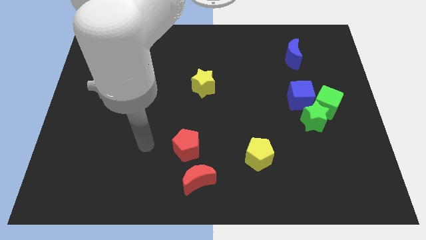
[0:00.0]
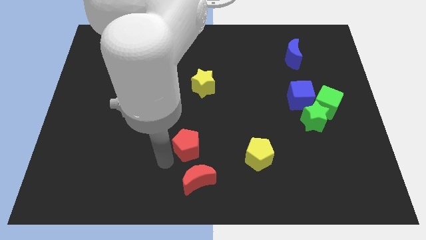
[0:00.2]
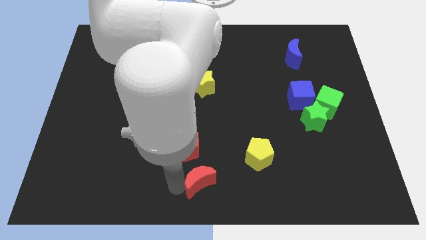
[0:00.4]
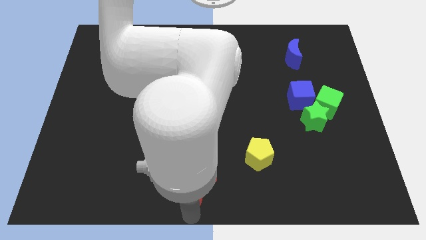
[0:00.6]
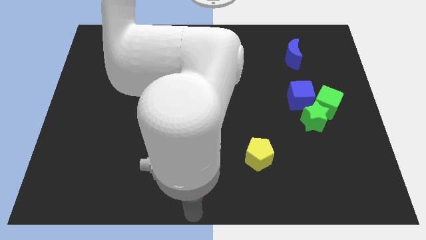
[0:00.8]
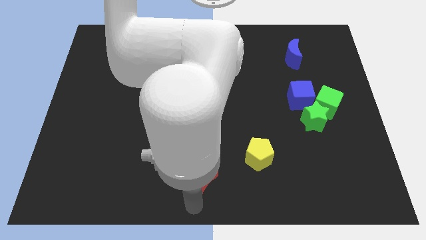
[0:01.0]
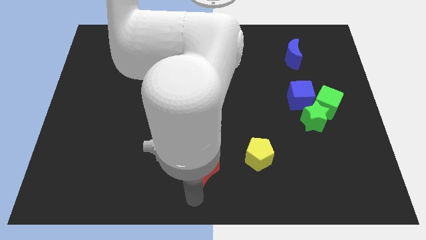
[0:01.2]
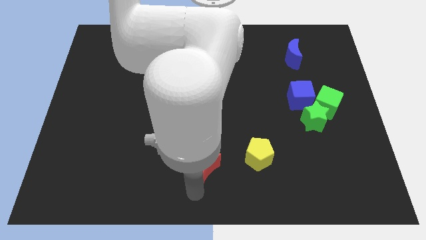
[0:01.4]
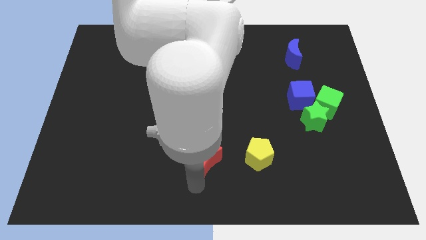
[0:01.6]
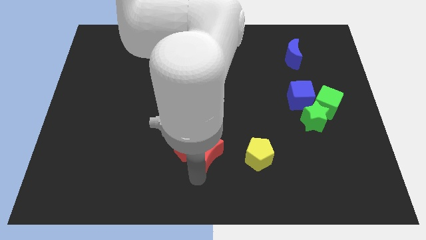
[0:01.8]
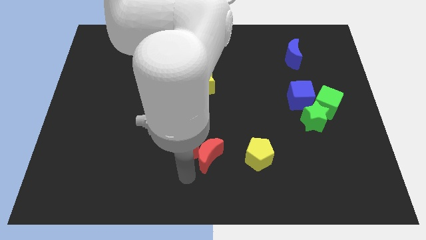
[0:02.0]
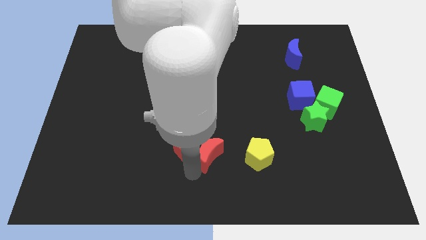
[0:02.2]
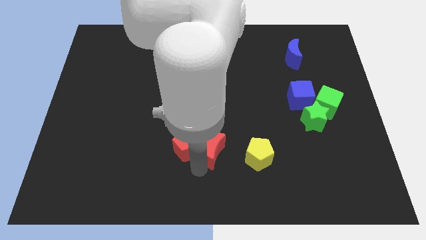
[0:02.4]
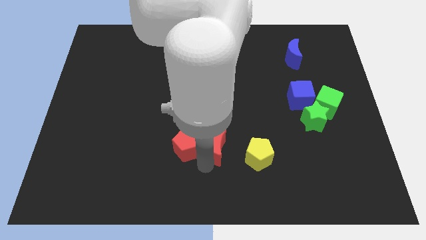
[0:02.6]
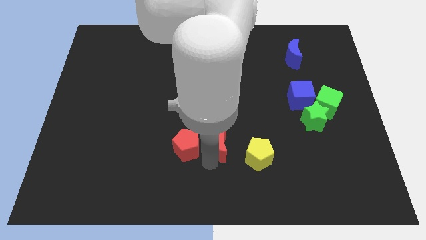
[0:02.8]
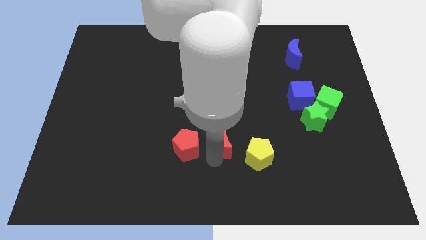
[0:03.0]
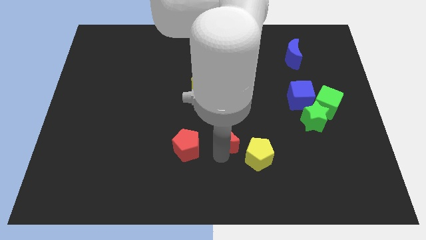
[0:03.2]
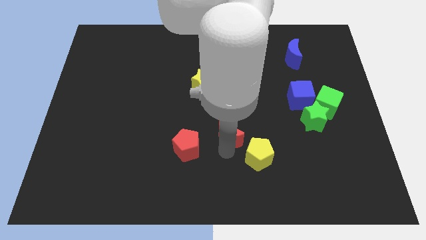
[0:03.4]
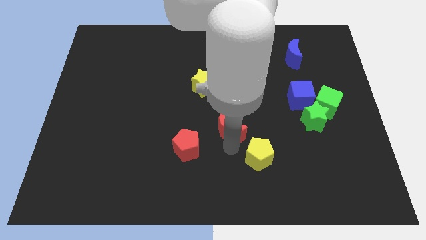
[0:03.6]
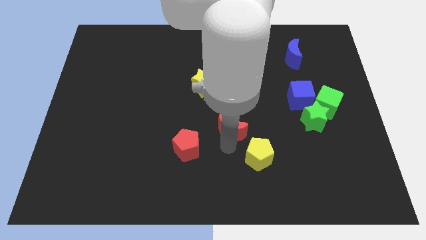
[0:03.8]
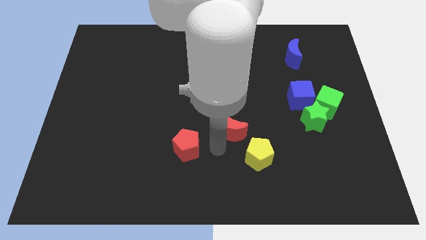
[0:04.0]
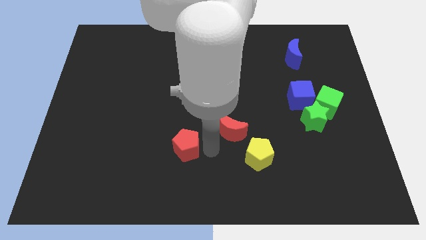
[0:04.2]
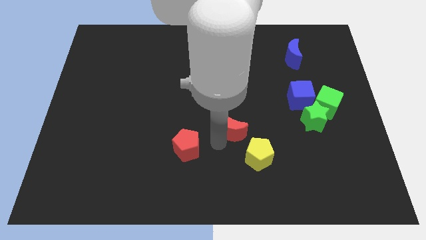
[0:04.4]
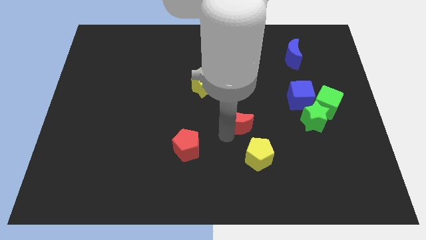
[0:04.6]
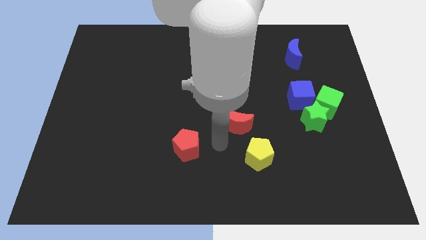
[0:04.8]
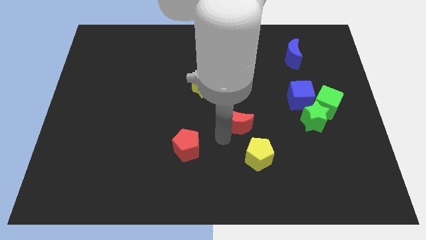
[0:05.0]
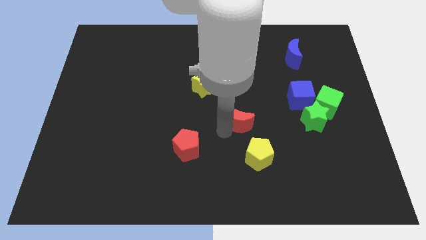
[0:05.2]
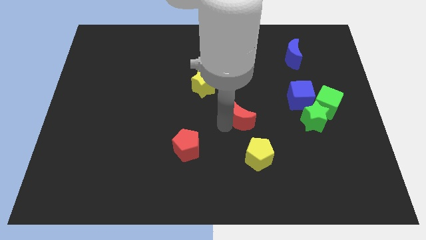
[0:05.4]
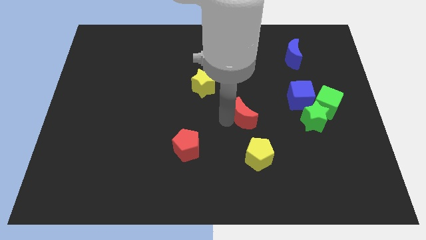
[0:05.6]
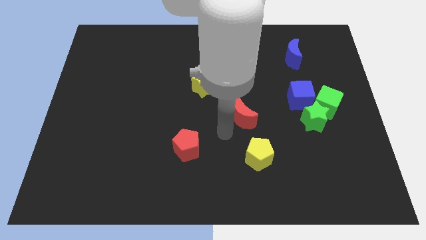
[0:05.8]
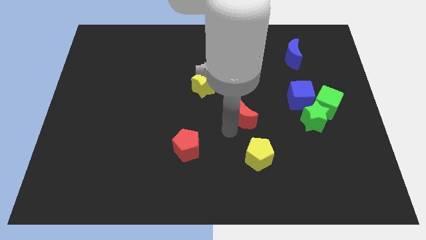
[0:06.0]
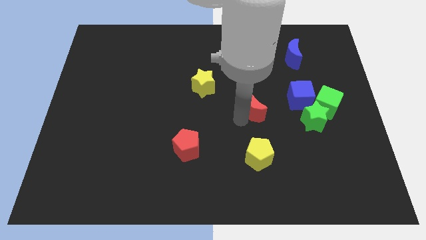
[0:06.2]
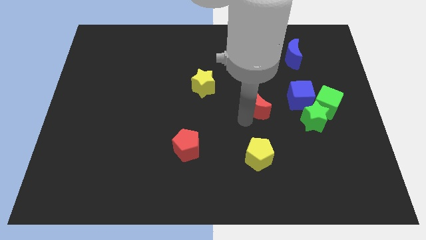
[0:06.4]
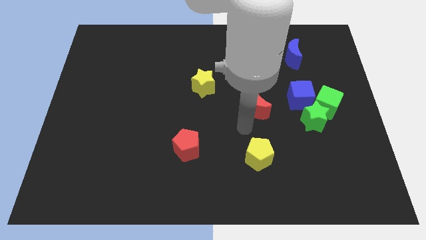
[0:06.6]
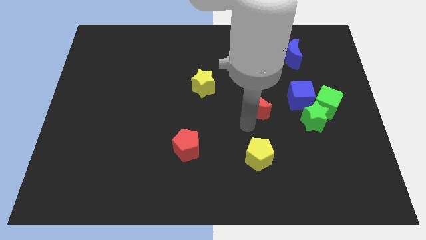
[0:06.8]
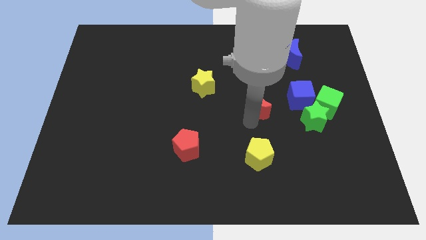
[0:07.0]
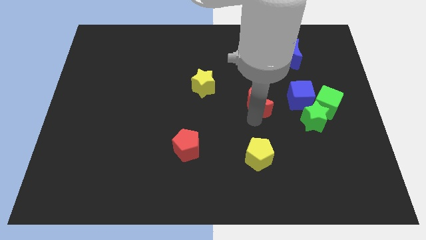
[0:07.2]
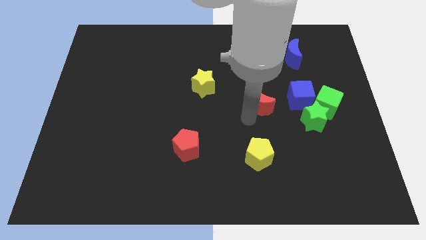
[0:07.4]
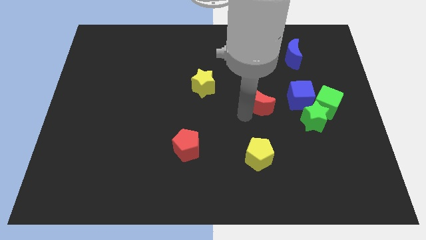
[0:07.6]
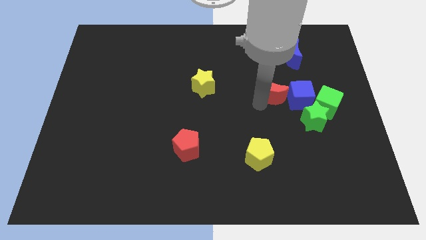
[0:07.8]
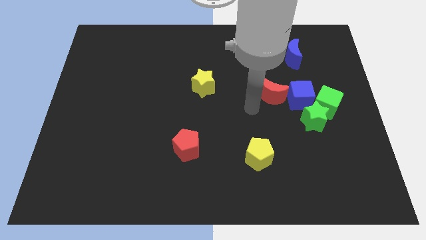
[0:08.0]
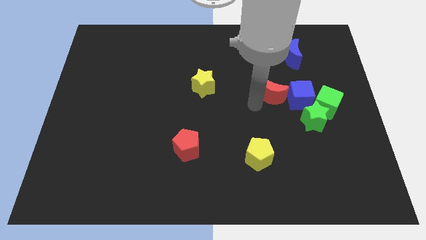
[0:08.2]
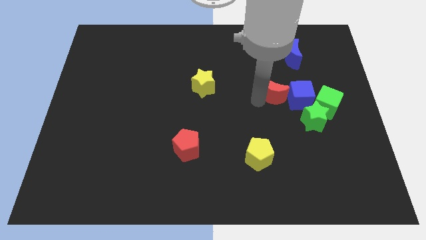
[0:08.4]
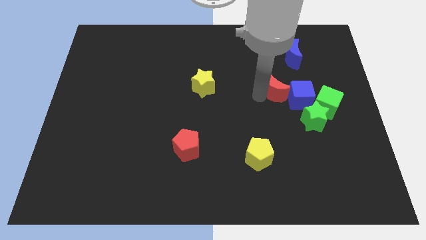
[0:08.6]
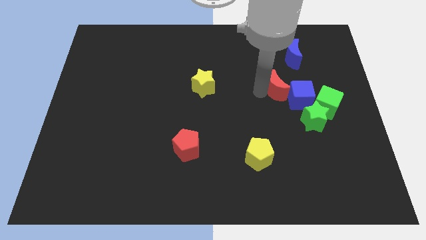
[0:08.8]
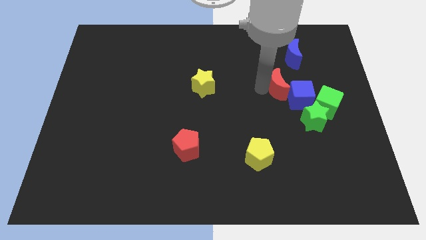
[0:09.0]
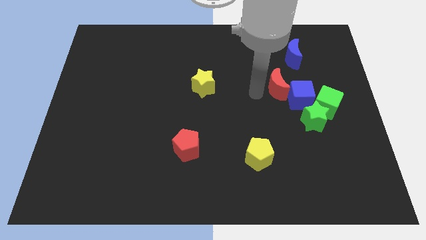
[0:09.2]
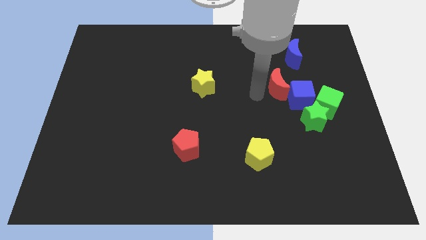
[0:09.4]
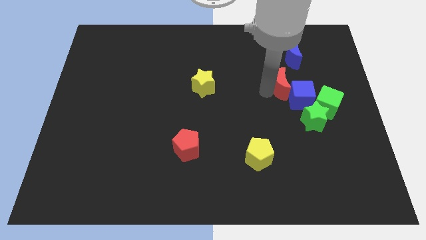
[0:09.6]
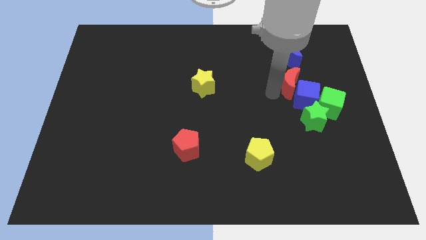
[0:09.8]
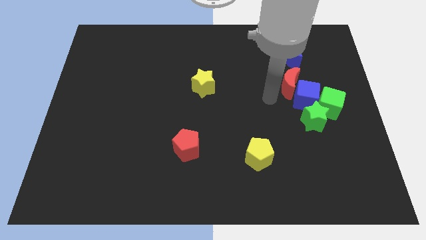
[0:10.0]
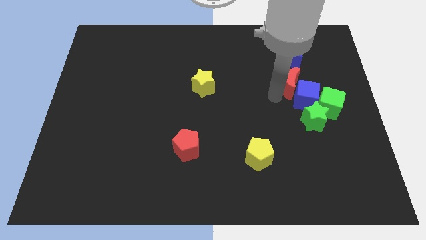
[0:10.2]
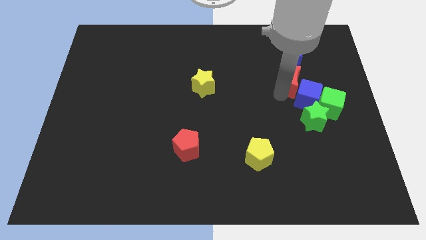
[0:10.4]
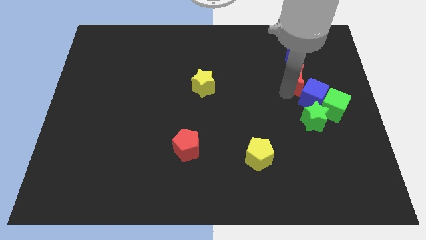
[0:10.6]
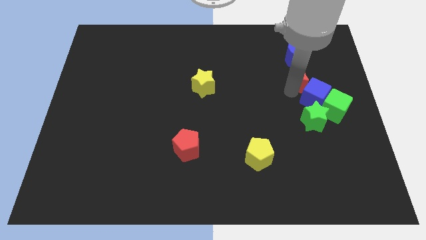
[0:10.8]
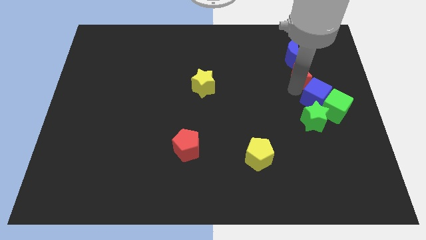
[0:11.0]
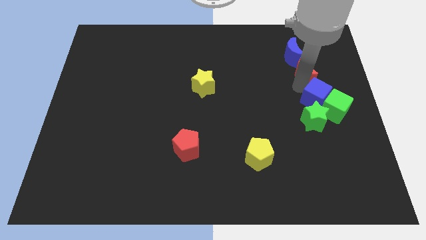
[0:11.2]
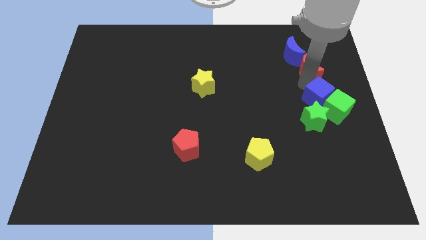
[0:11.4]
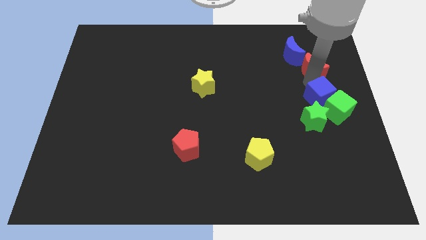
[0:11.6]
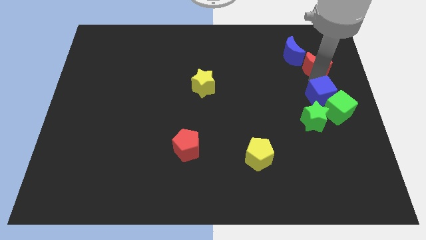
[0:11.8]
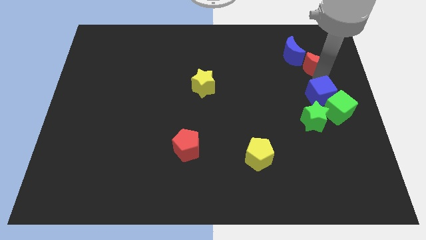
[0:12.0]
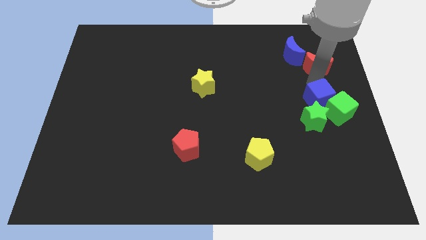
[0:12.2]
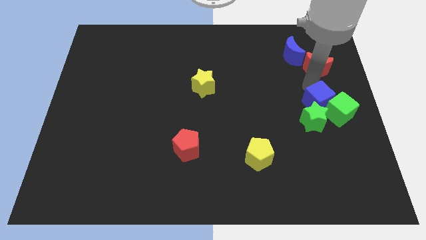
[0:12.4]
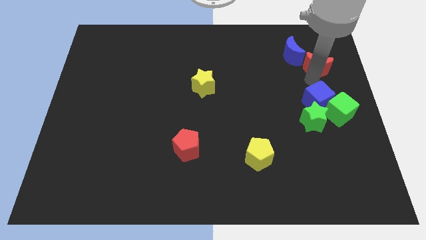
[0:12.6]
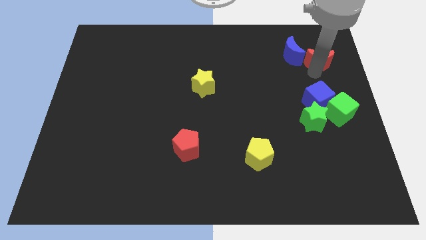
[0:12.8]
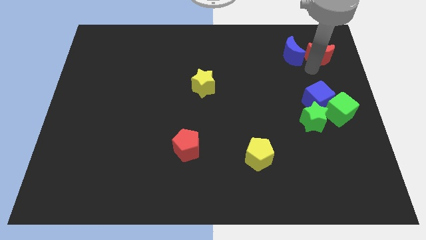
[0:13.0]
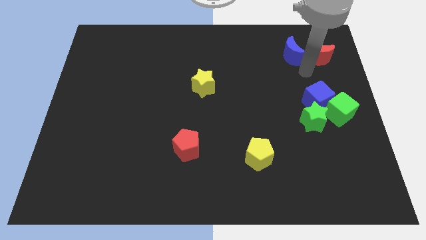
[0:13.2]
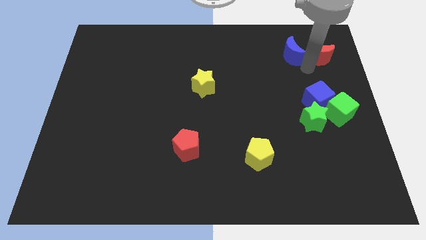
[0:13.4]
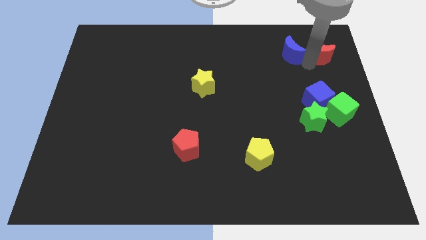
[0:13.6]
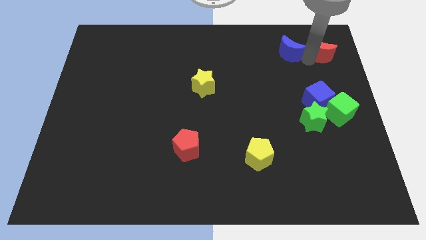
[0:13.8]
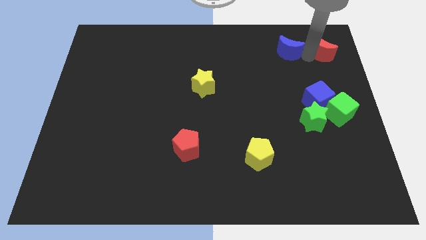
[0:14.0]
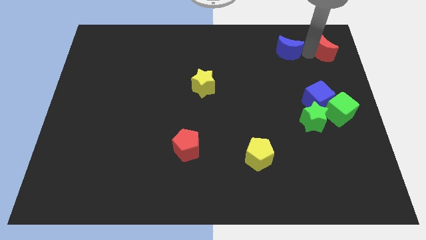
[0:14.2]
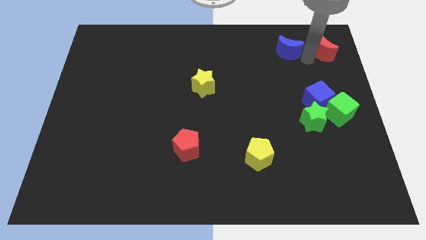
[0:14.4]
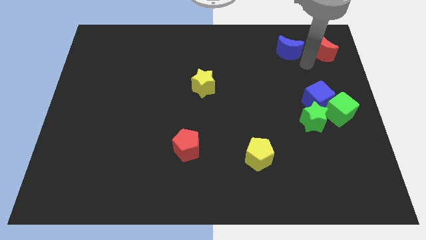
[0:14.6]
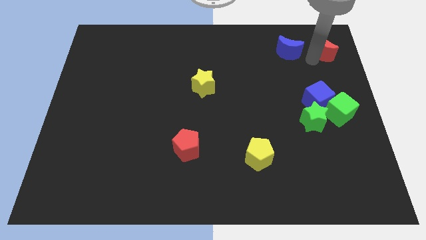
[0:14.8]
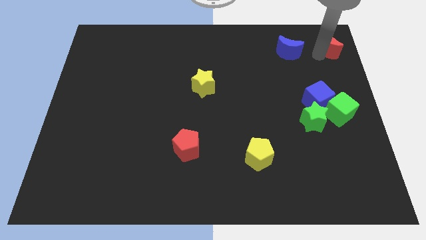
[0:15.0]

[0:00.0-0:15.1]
put the red moon to the top right corner
